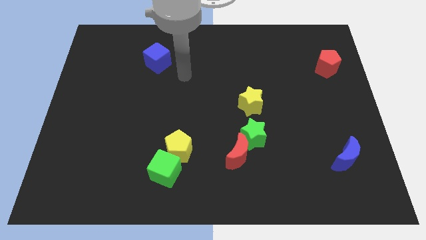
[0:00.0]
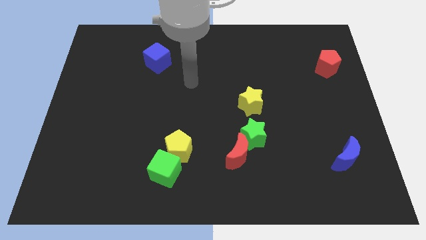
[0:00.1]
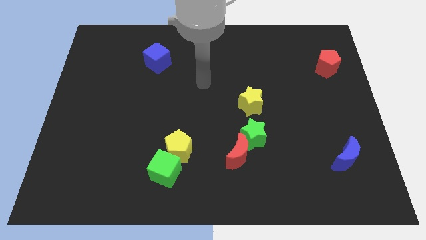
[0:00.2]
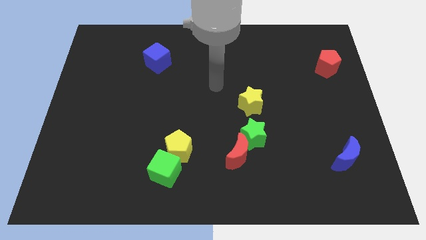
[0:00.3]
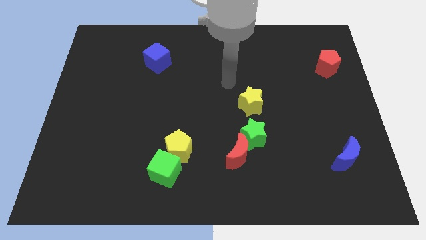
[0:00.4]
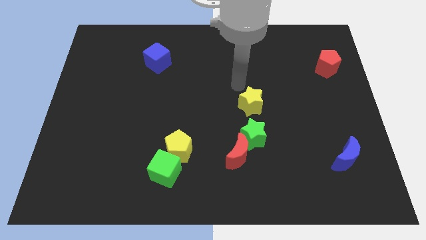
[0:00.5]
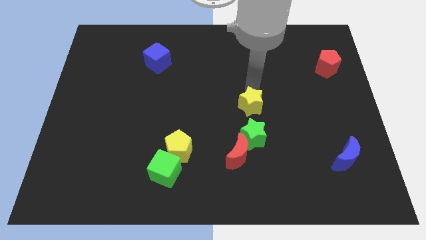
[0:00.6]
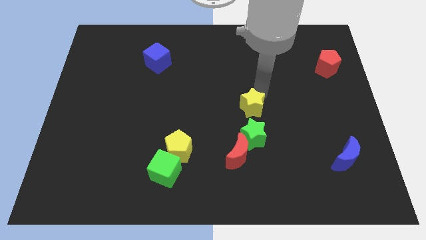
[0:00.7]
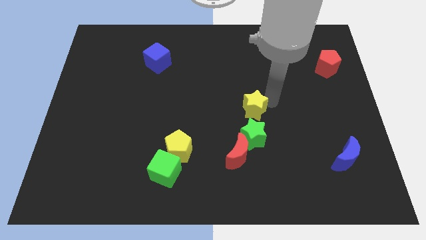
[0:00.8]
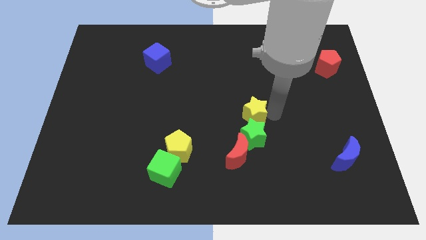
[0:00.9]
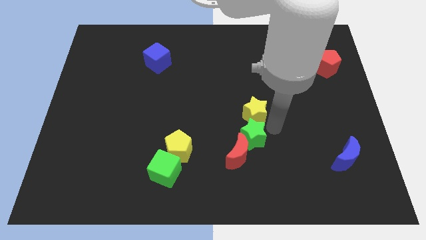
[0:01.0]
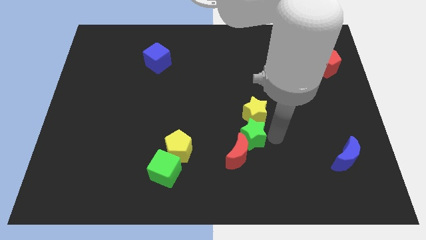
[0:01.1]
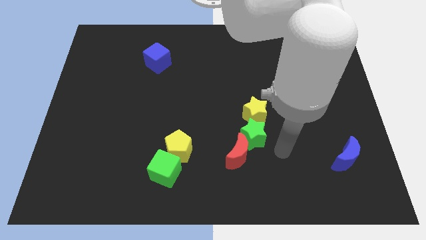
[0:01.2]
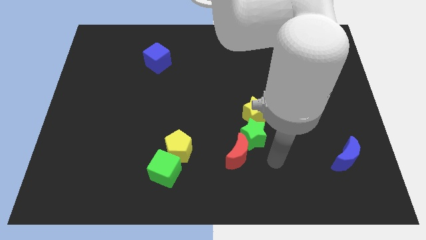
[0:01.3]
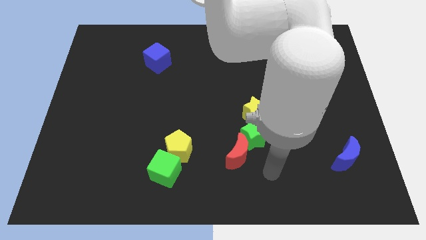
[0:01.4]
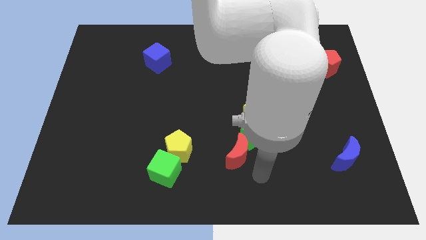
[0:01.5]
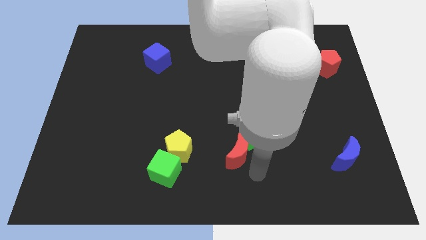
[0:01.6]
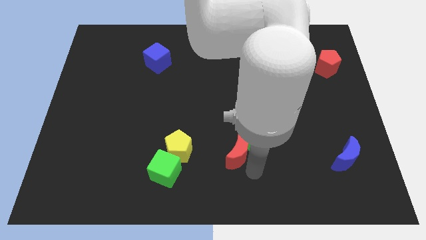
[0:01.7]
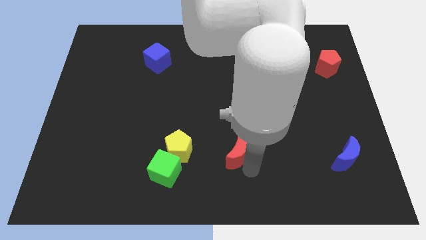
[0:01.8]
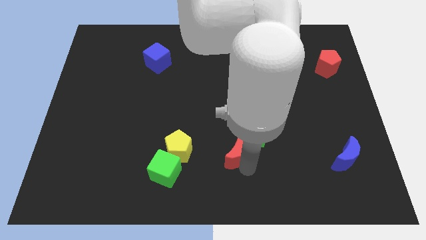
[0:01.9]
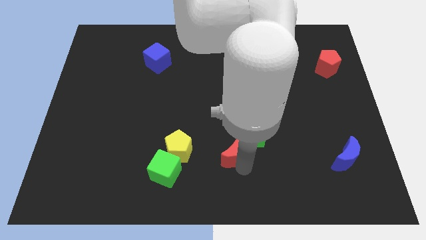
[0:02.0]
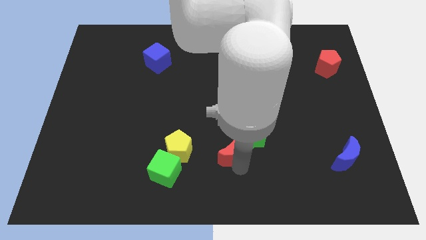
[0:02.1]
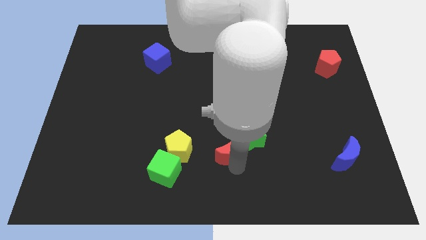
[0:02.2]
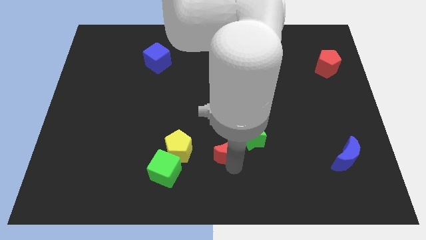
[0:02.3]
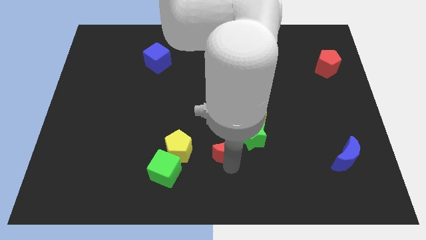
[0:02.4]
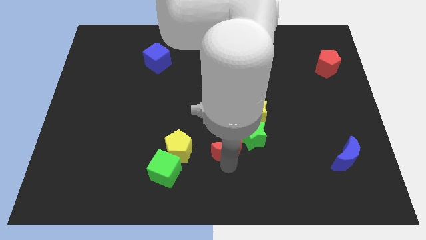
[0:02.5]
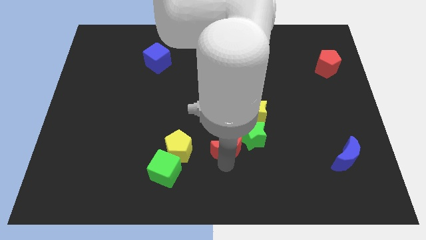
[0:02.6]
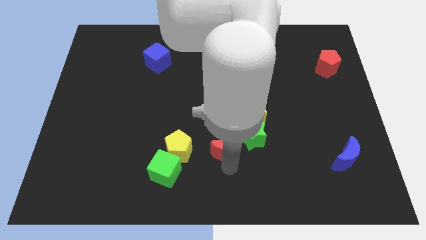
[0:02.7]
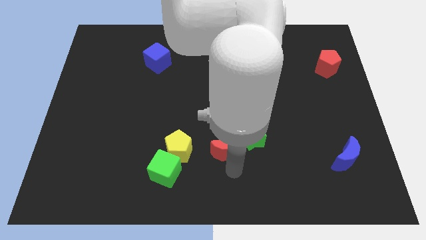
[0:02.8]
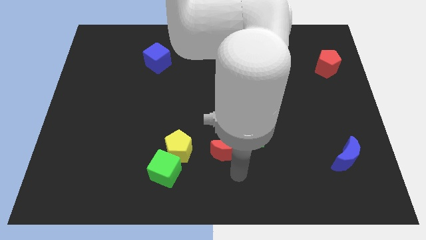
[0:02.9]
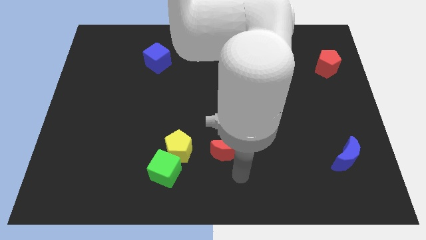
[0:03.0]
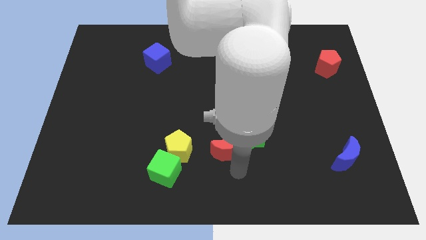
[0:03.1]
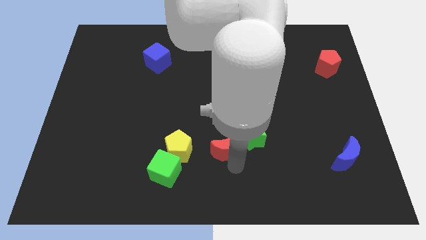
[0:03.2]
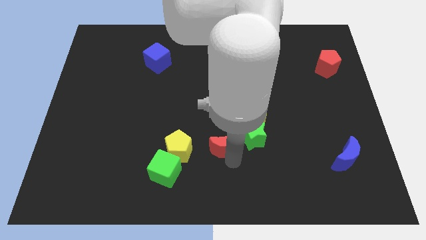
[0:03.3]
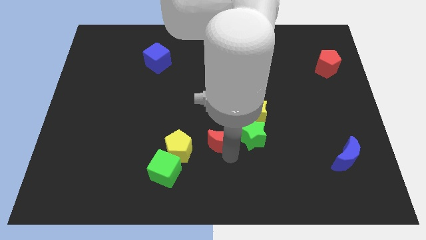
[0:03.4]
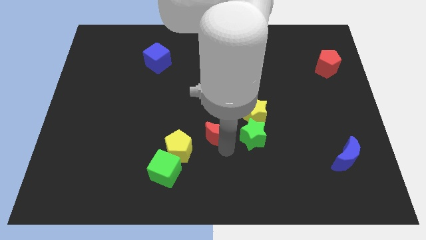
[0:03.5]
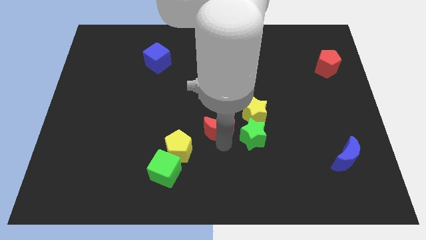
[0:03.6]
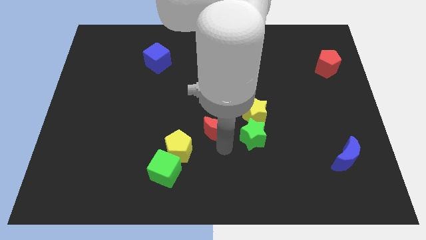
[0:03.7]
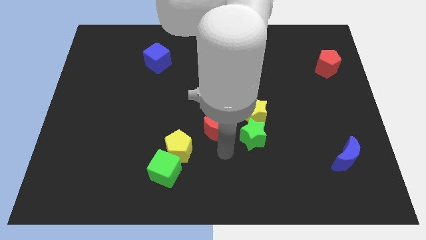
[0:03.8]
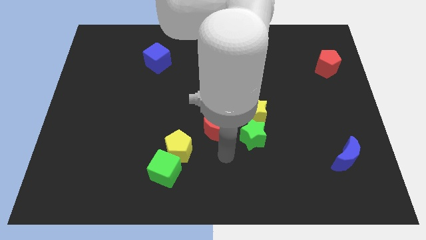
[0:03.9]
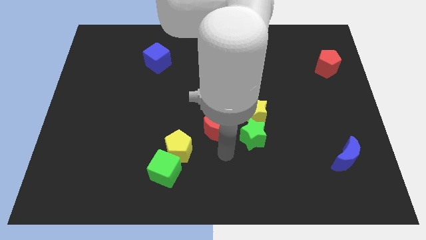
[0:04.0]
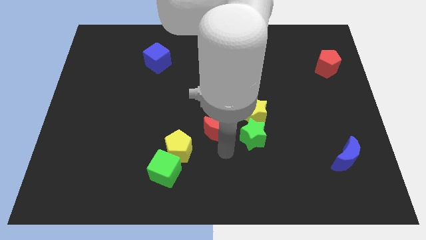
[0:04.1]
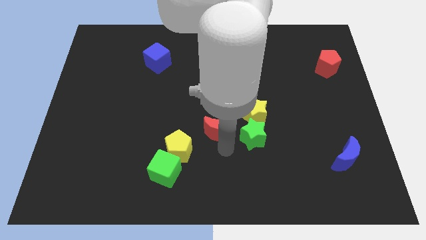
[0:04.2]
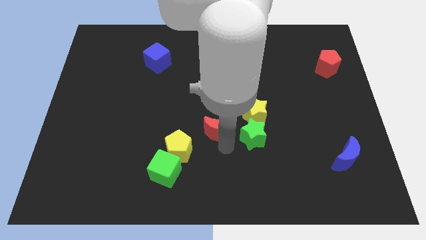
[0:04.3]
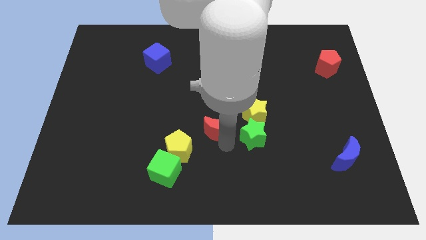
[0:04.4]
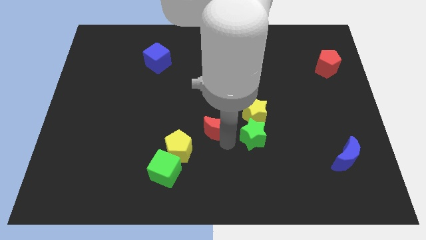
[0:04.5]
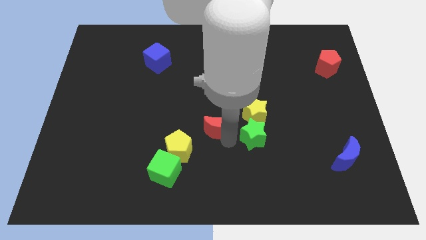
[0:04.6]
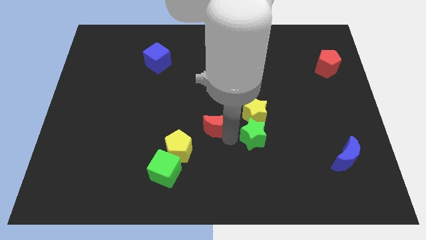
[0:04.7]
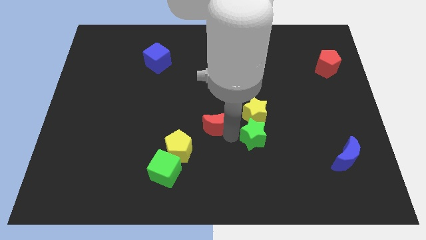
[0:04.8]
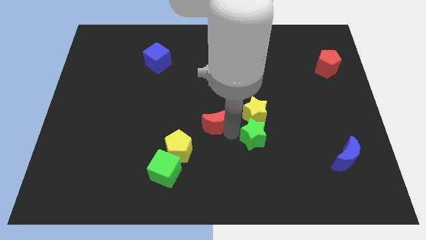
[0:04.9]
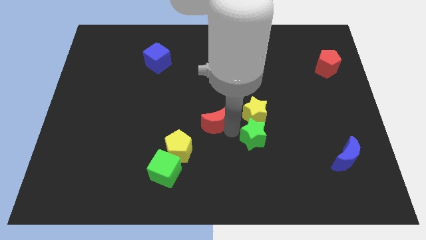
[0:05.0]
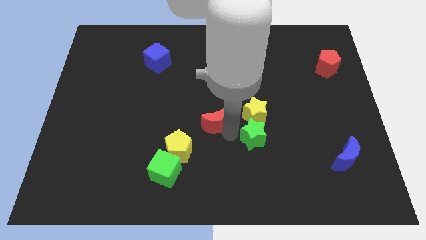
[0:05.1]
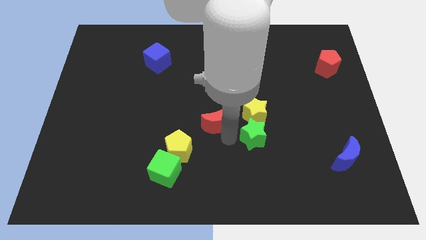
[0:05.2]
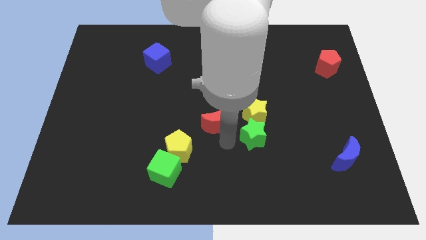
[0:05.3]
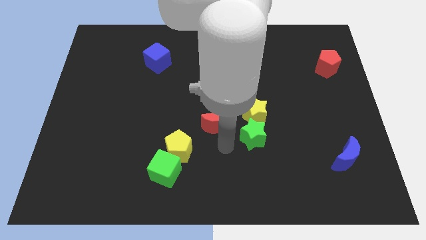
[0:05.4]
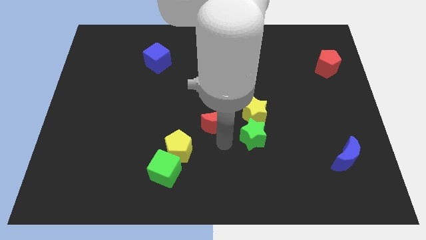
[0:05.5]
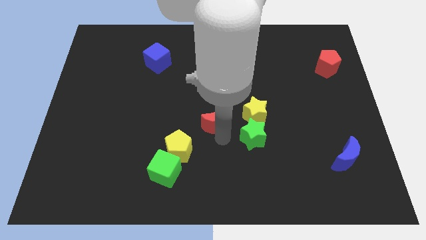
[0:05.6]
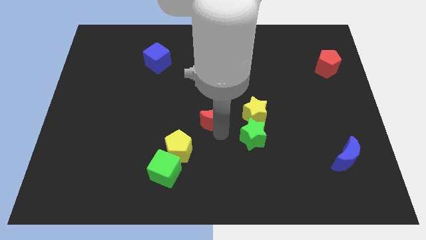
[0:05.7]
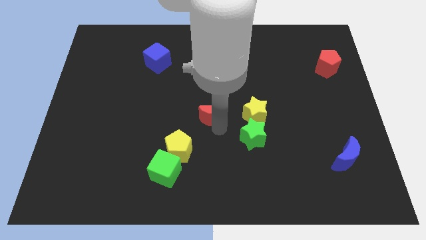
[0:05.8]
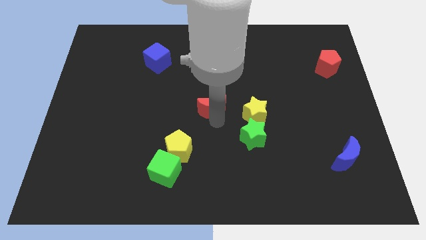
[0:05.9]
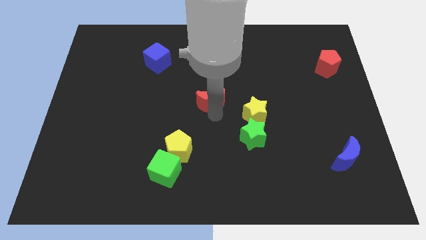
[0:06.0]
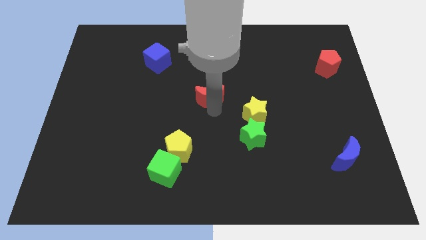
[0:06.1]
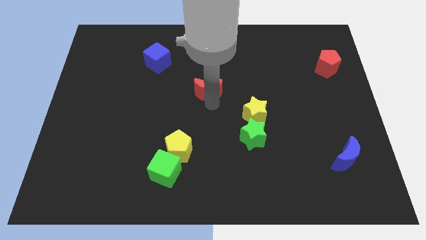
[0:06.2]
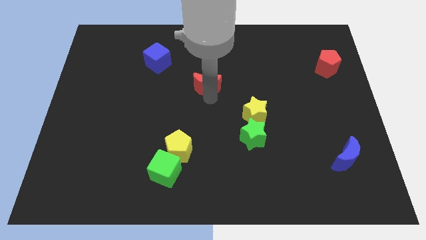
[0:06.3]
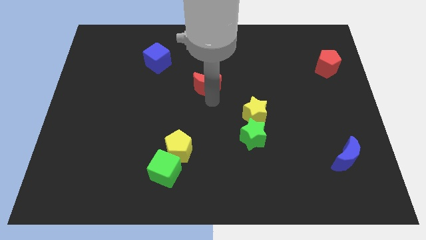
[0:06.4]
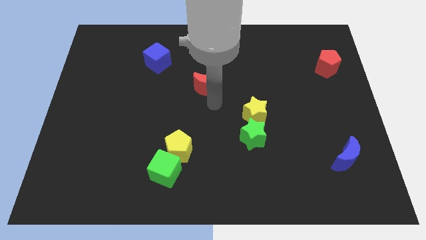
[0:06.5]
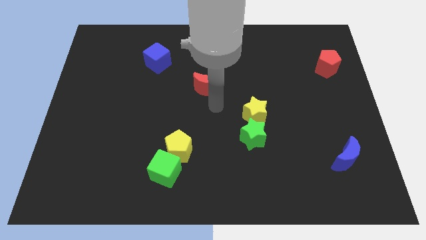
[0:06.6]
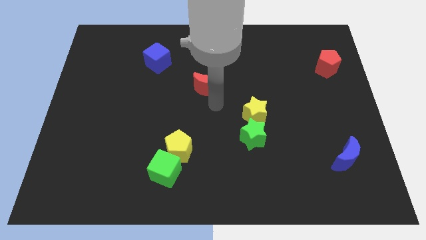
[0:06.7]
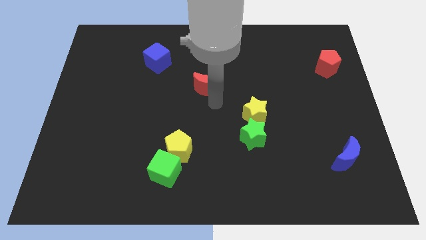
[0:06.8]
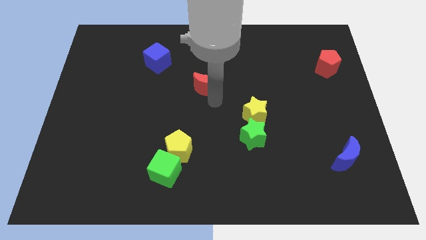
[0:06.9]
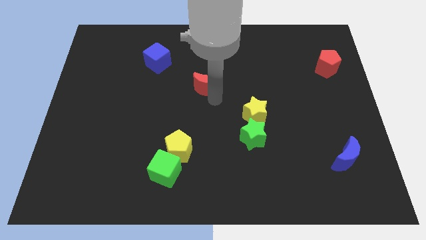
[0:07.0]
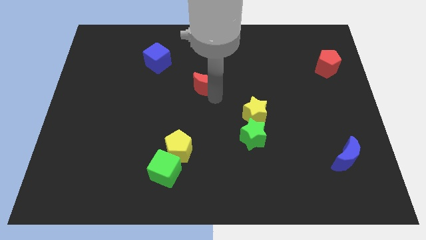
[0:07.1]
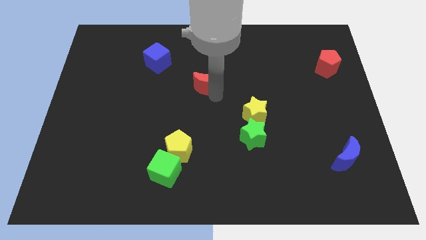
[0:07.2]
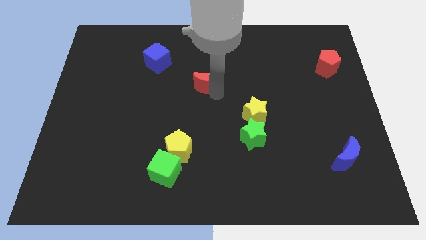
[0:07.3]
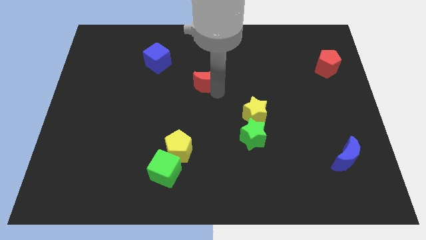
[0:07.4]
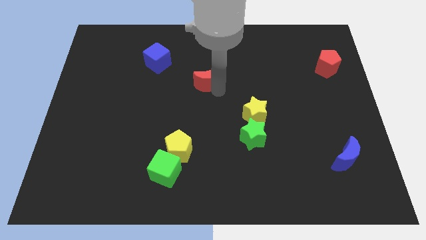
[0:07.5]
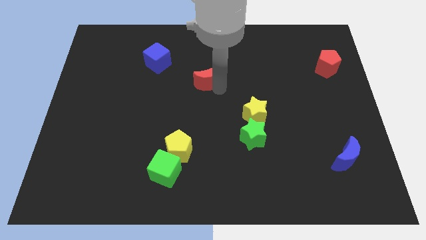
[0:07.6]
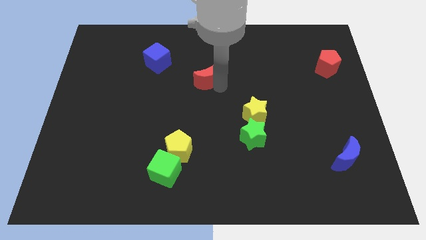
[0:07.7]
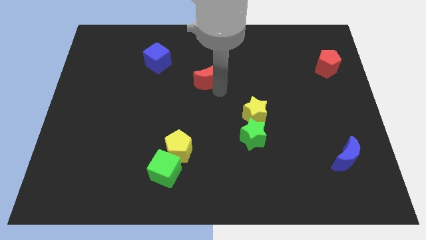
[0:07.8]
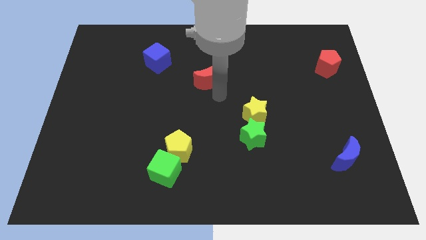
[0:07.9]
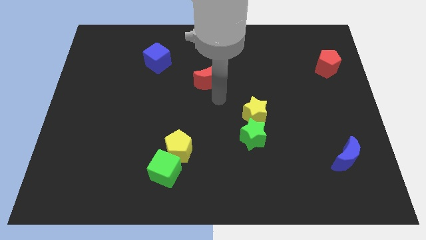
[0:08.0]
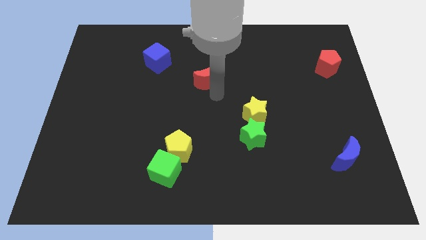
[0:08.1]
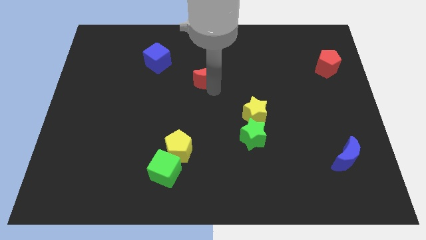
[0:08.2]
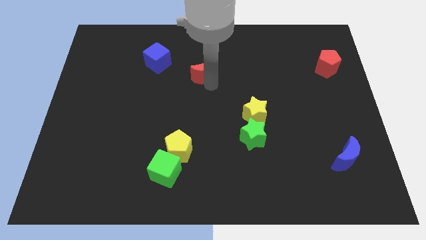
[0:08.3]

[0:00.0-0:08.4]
move the red moon right of the blue cube
